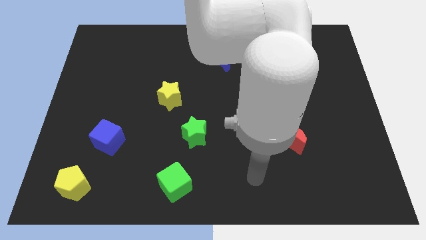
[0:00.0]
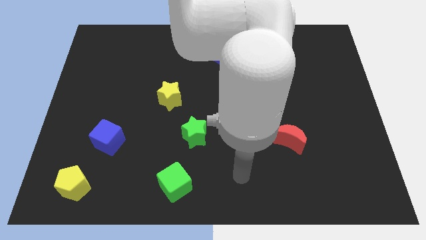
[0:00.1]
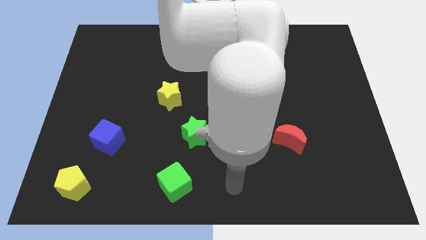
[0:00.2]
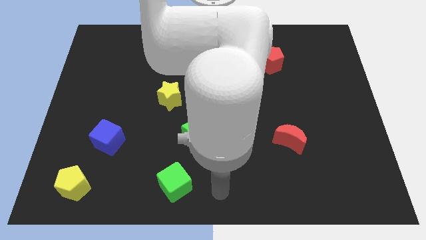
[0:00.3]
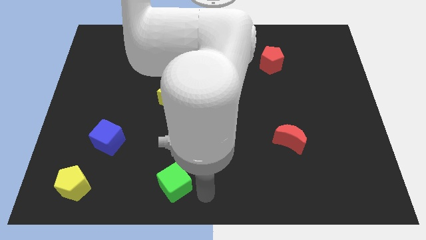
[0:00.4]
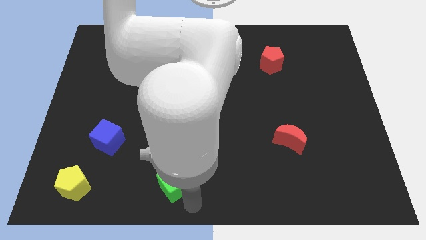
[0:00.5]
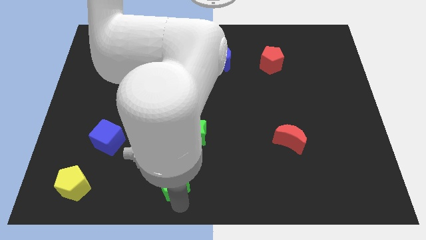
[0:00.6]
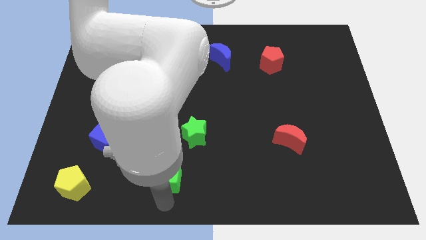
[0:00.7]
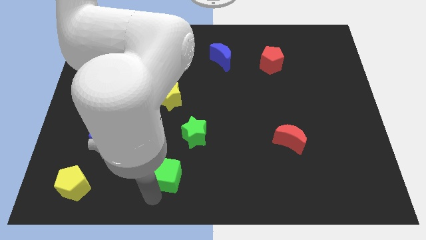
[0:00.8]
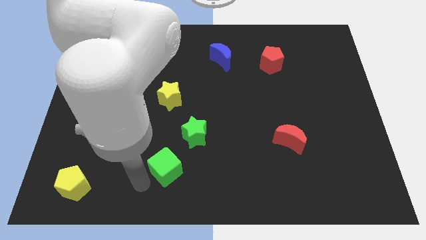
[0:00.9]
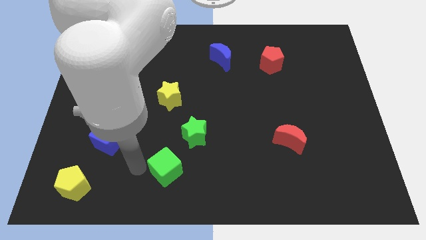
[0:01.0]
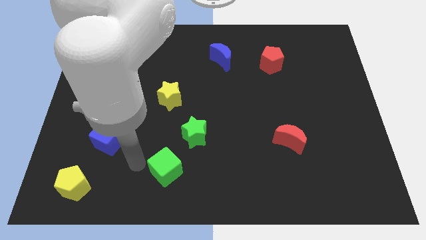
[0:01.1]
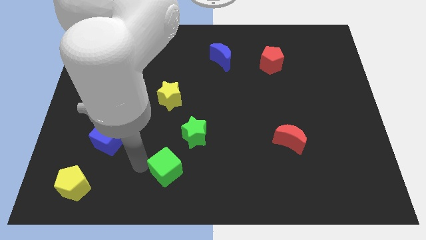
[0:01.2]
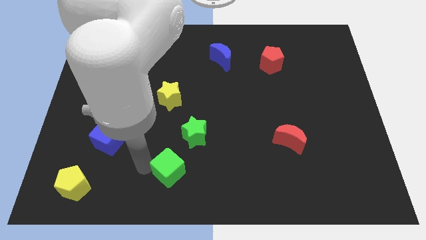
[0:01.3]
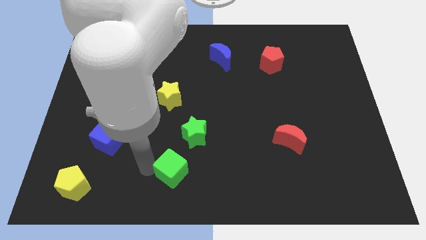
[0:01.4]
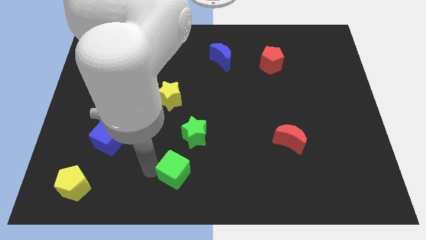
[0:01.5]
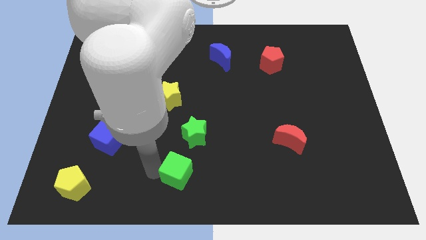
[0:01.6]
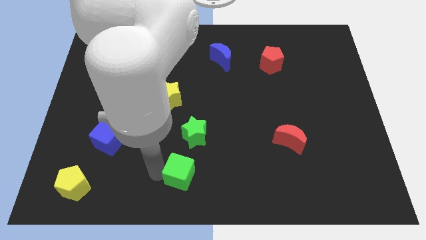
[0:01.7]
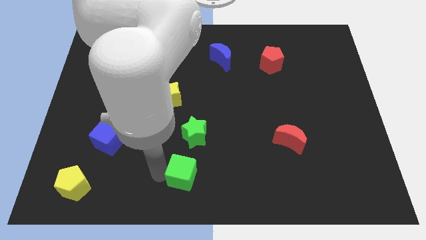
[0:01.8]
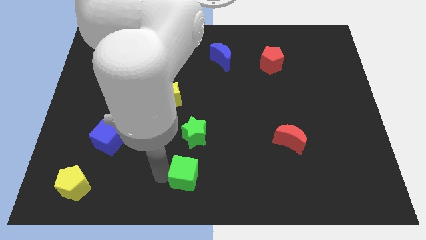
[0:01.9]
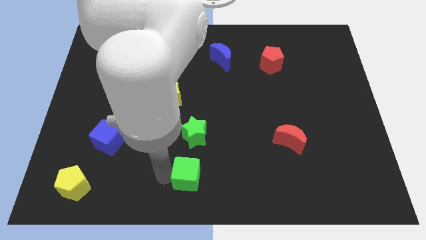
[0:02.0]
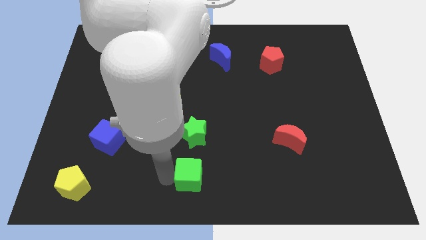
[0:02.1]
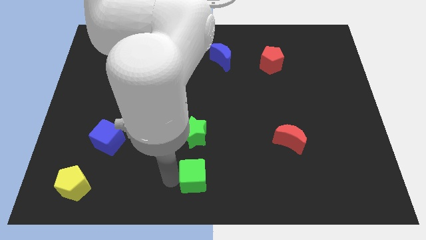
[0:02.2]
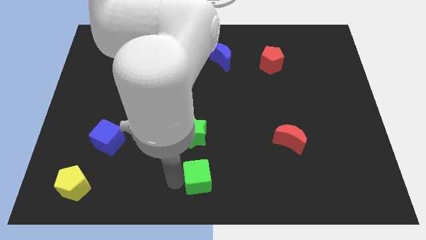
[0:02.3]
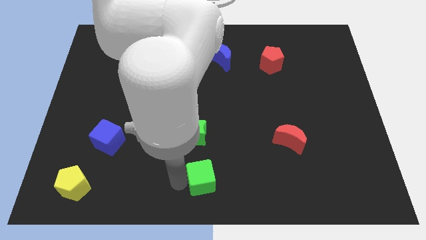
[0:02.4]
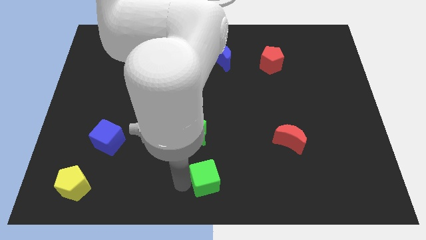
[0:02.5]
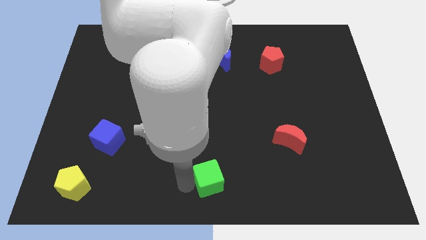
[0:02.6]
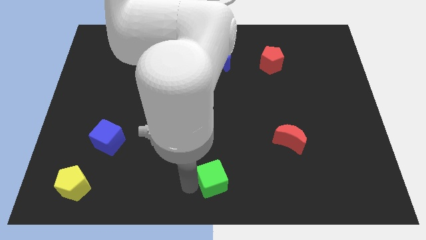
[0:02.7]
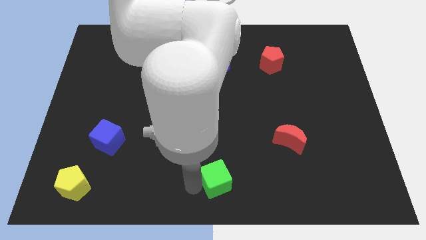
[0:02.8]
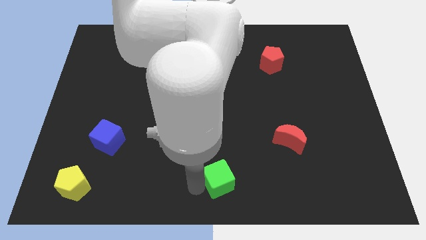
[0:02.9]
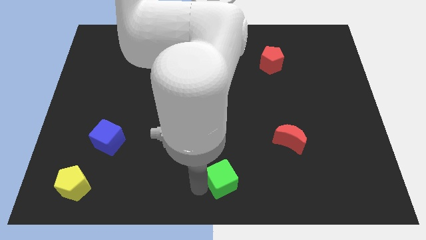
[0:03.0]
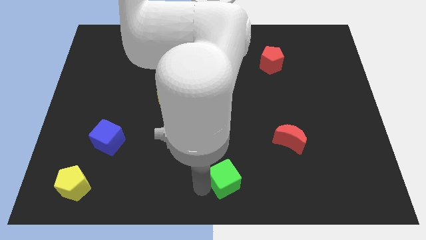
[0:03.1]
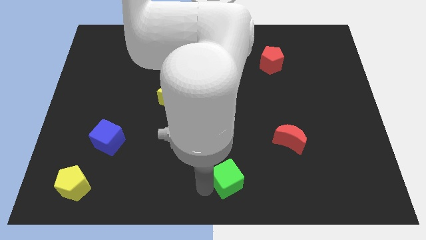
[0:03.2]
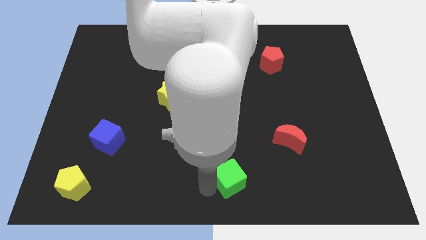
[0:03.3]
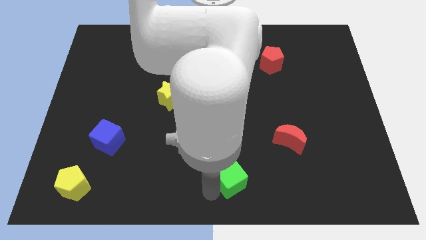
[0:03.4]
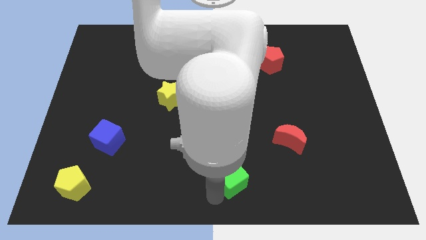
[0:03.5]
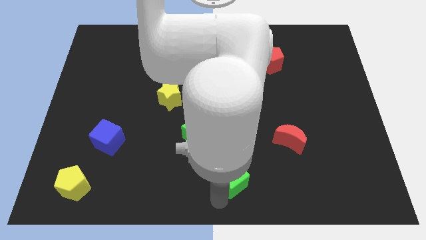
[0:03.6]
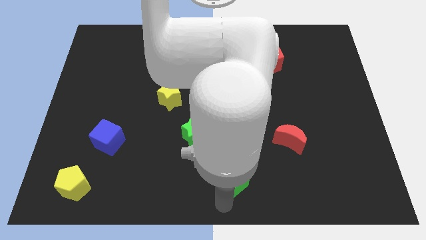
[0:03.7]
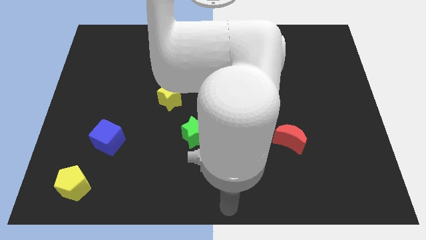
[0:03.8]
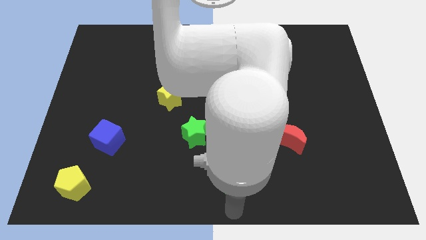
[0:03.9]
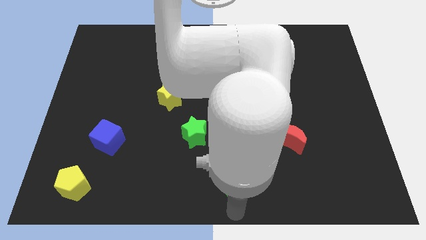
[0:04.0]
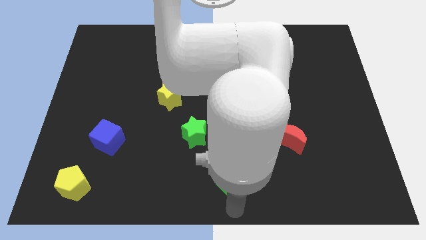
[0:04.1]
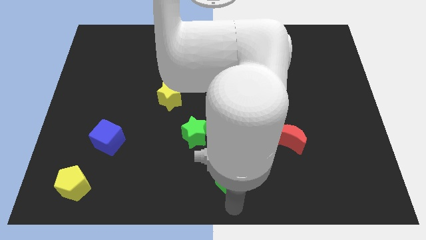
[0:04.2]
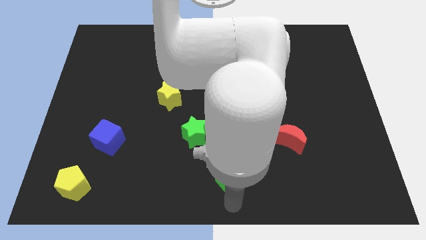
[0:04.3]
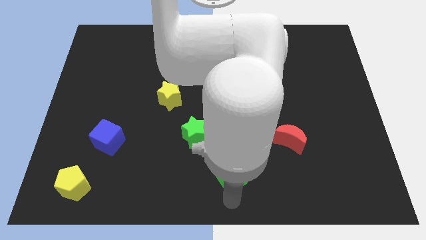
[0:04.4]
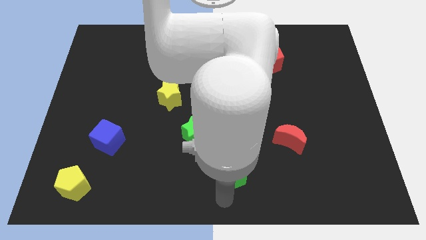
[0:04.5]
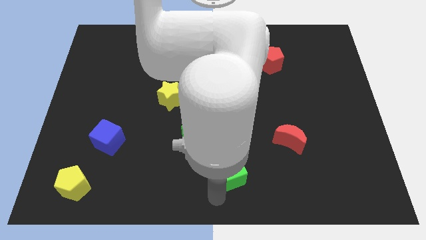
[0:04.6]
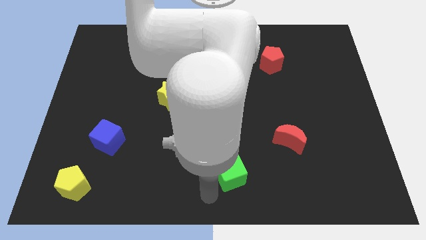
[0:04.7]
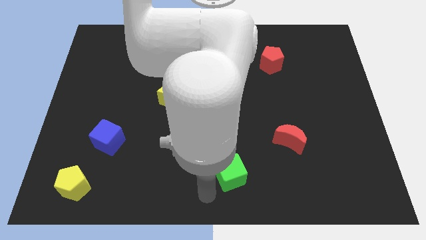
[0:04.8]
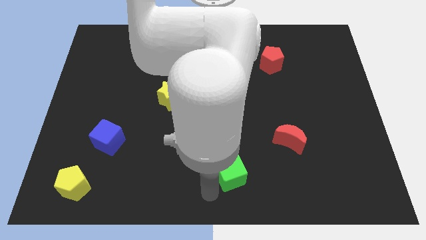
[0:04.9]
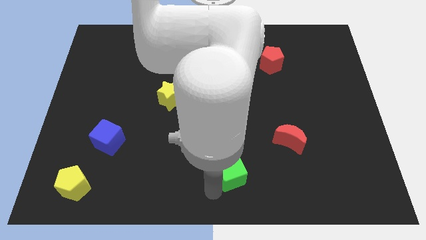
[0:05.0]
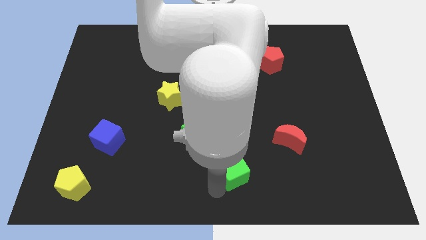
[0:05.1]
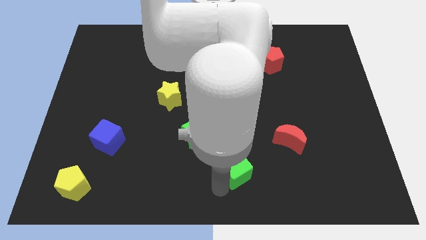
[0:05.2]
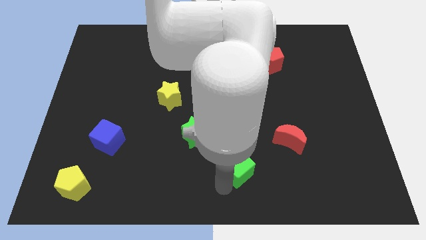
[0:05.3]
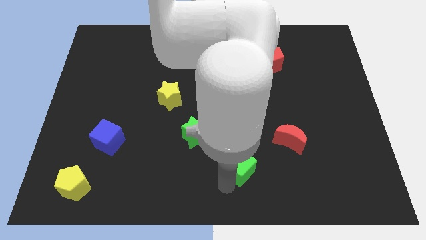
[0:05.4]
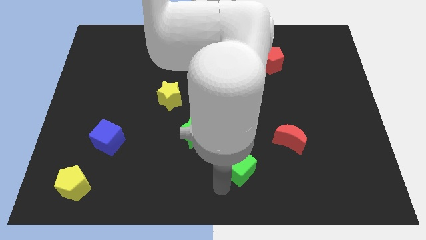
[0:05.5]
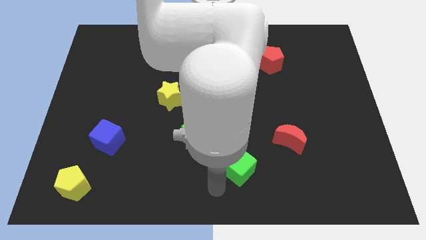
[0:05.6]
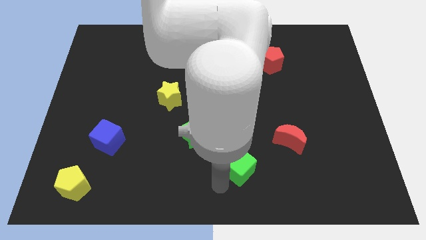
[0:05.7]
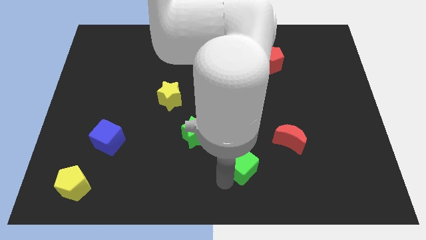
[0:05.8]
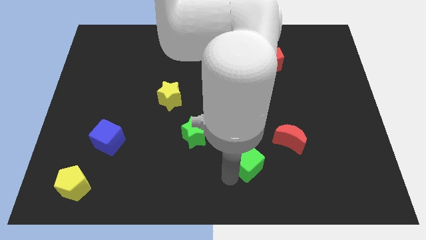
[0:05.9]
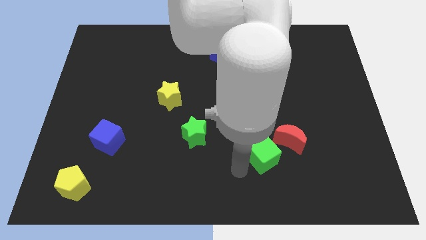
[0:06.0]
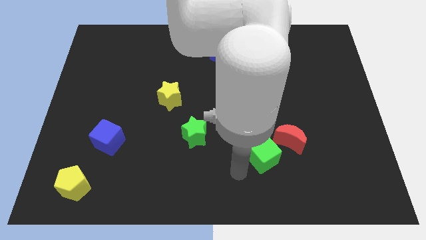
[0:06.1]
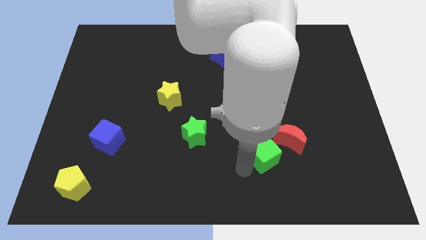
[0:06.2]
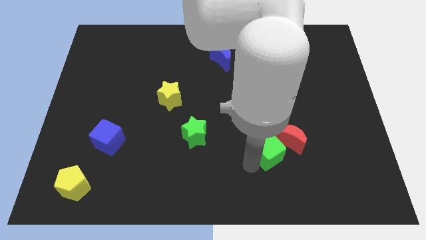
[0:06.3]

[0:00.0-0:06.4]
slide the green cube next to the red moon

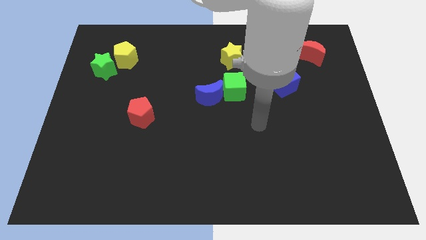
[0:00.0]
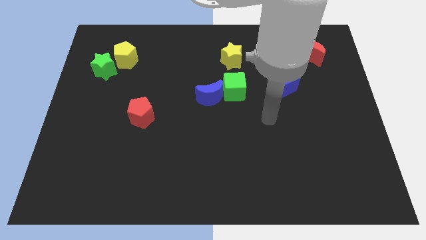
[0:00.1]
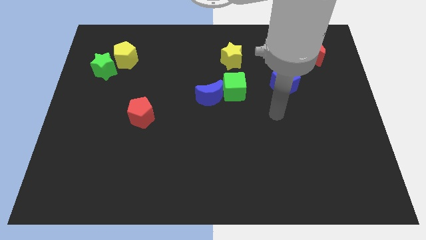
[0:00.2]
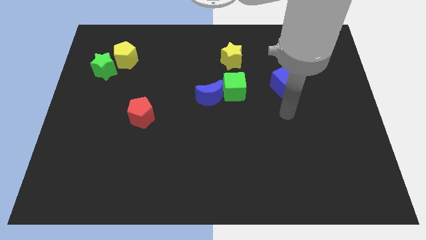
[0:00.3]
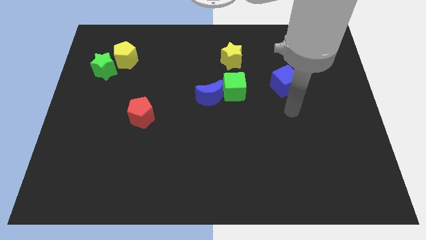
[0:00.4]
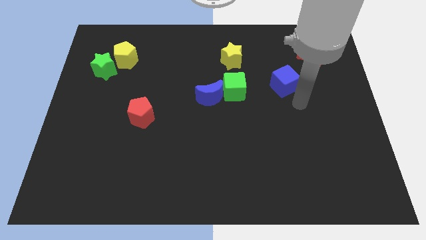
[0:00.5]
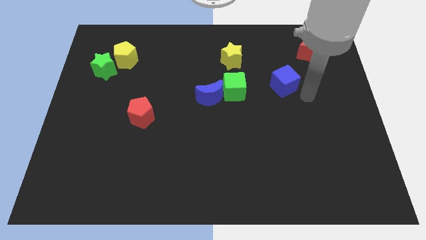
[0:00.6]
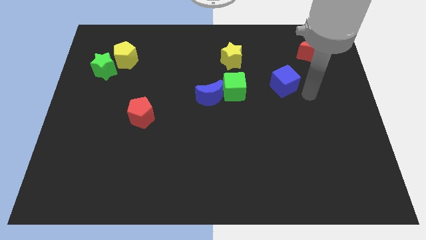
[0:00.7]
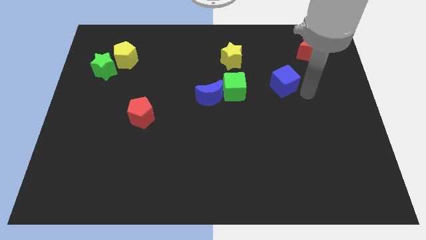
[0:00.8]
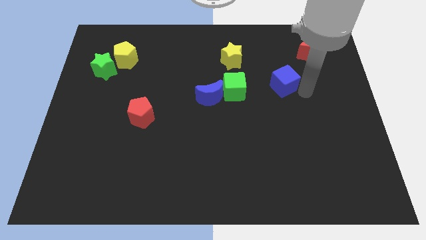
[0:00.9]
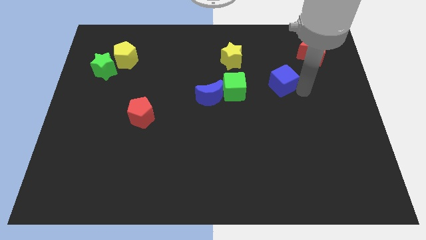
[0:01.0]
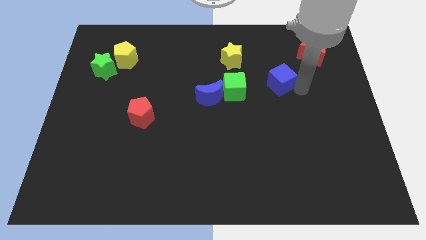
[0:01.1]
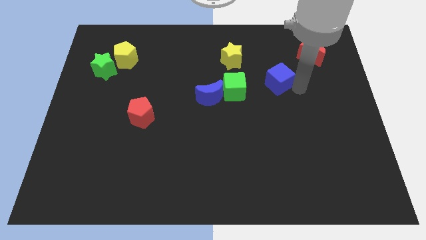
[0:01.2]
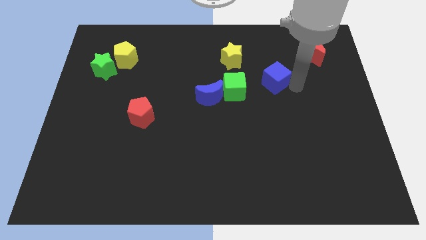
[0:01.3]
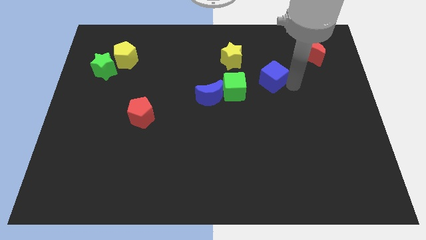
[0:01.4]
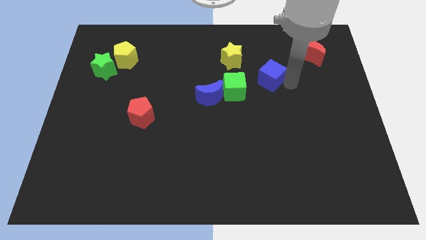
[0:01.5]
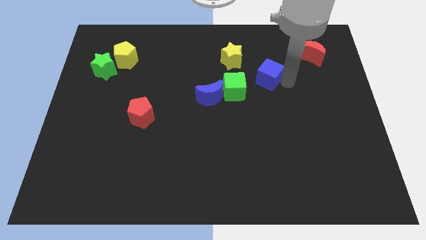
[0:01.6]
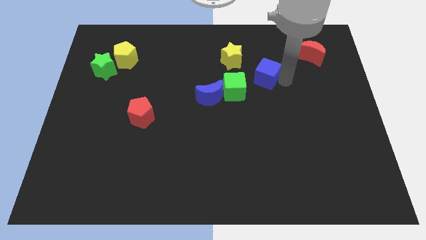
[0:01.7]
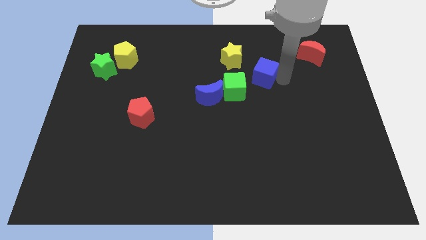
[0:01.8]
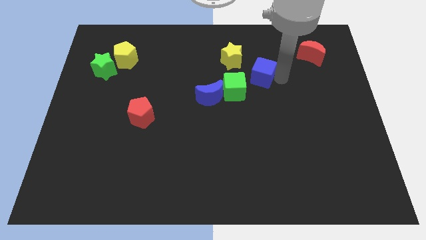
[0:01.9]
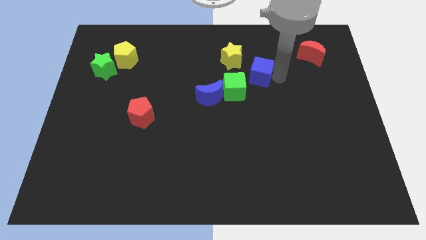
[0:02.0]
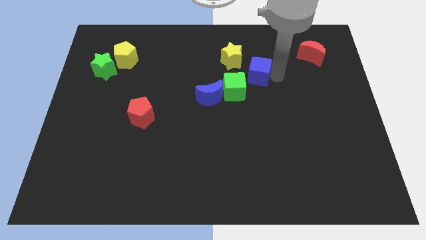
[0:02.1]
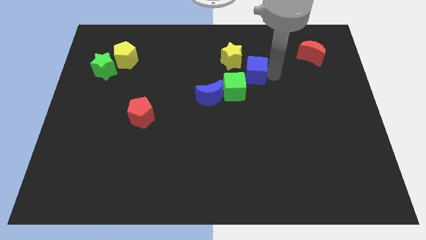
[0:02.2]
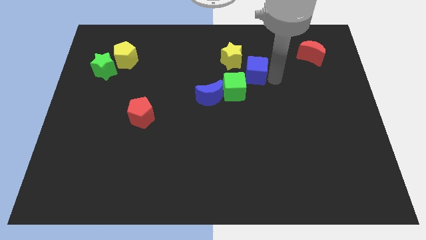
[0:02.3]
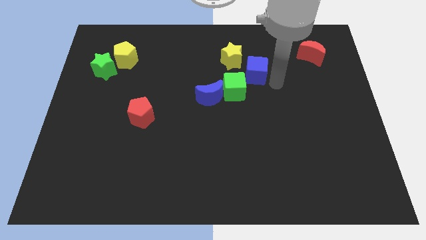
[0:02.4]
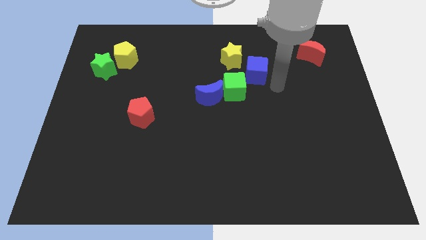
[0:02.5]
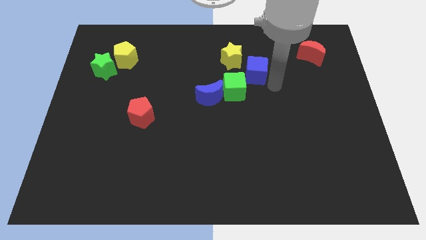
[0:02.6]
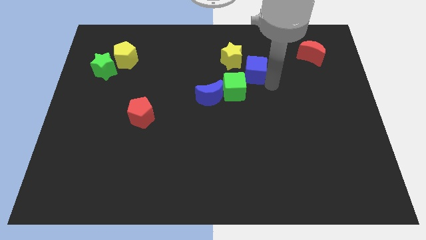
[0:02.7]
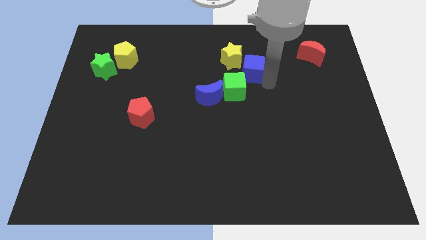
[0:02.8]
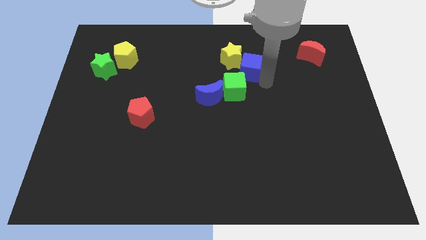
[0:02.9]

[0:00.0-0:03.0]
move the blue cube towards the yellow star
